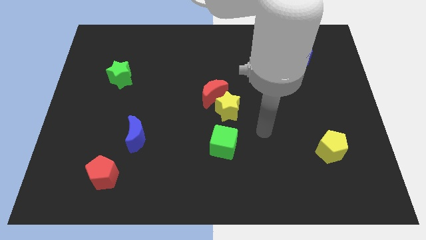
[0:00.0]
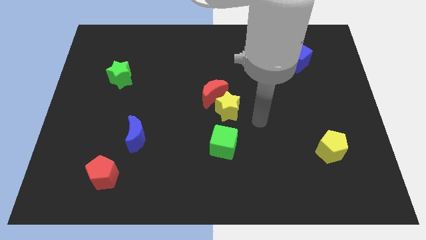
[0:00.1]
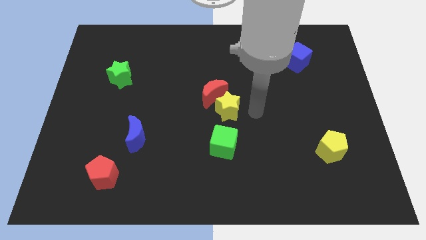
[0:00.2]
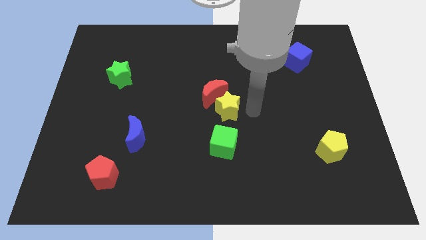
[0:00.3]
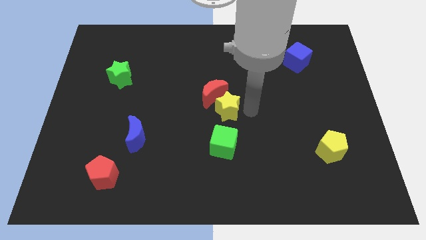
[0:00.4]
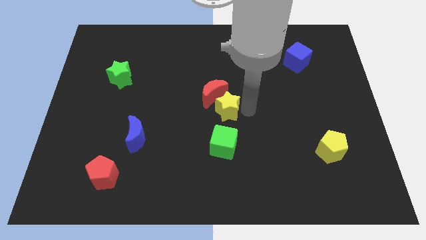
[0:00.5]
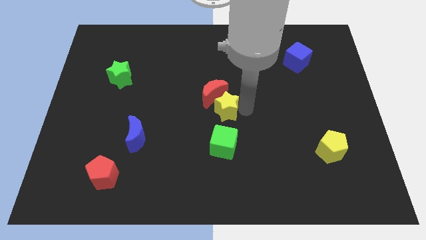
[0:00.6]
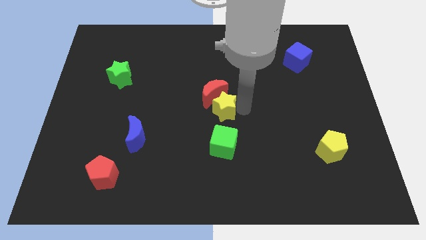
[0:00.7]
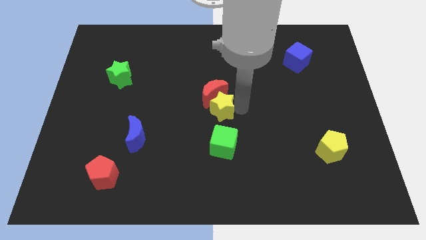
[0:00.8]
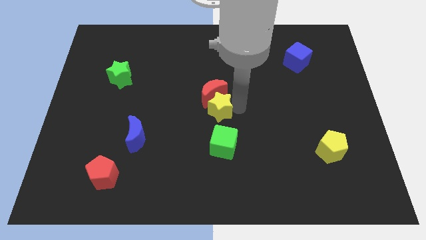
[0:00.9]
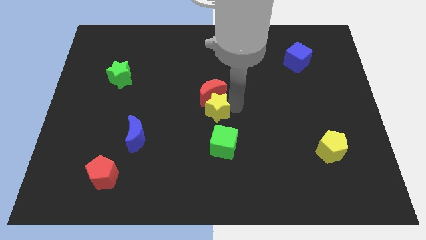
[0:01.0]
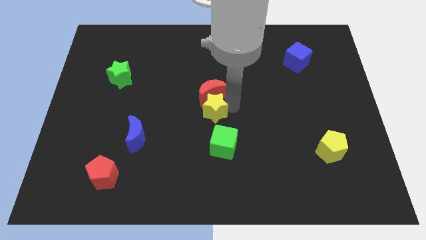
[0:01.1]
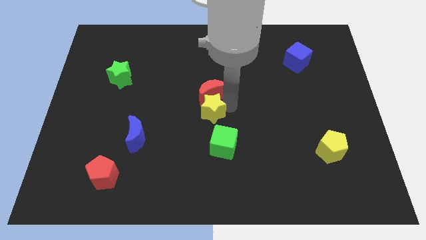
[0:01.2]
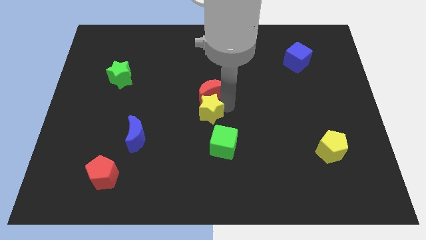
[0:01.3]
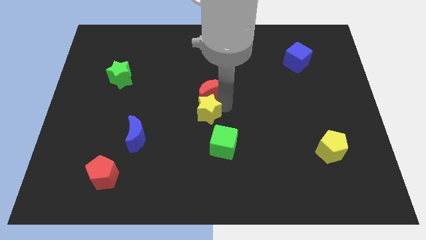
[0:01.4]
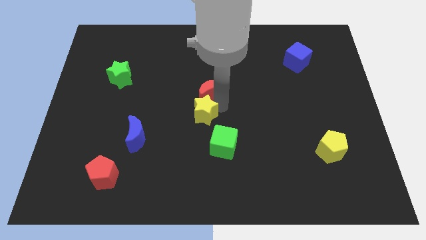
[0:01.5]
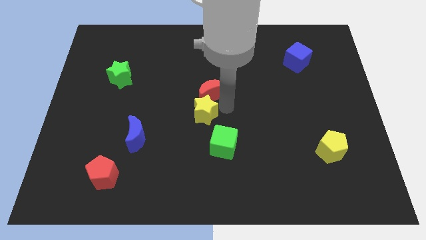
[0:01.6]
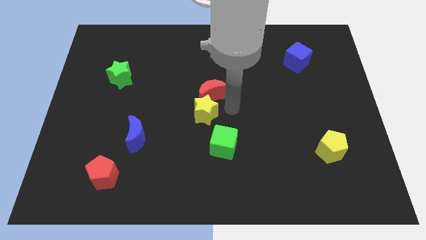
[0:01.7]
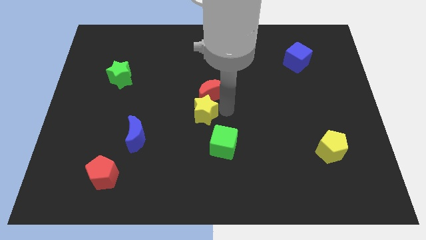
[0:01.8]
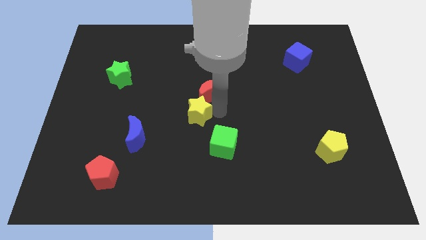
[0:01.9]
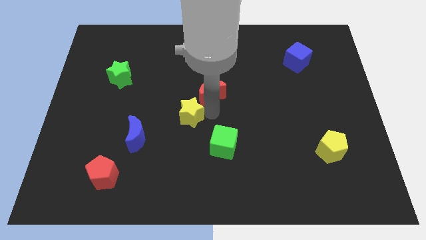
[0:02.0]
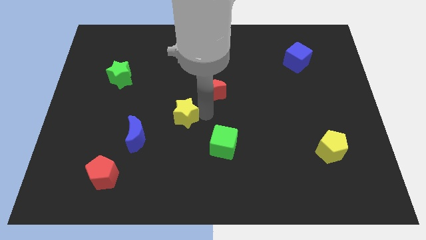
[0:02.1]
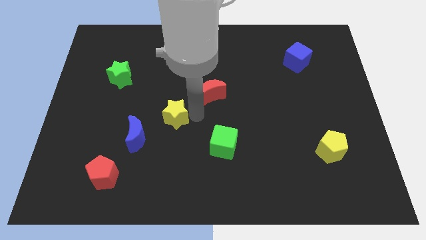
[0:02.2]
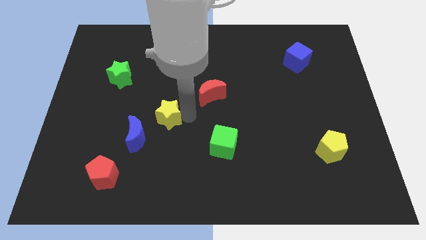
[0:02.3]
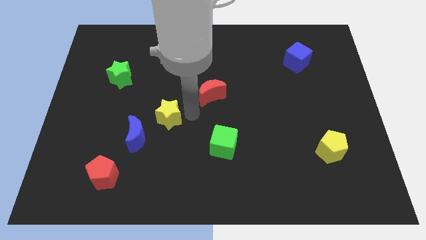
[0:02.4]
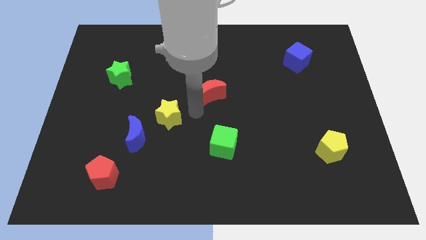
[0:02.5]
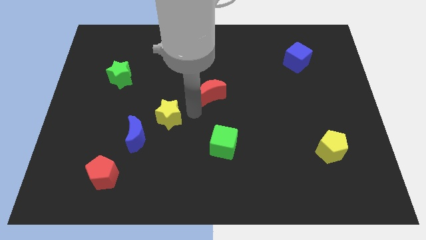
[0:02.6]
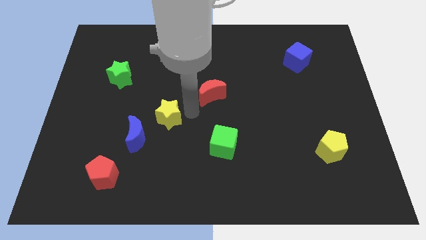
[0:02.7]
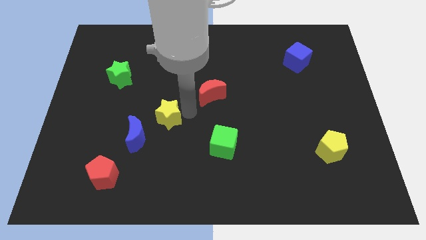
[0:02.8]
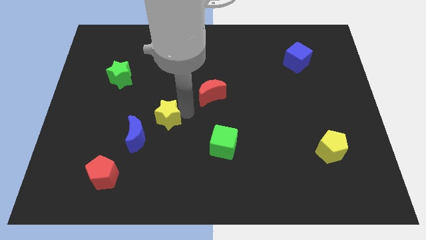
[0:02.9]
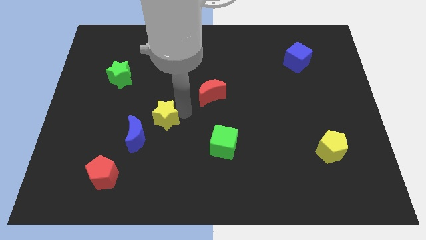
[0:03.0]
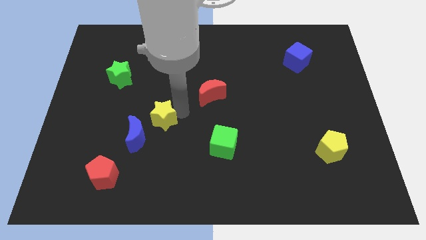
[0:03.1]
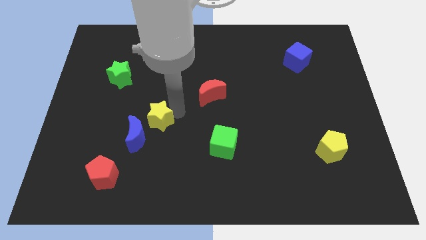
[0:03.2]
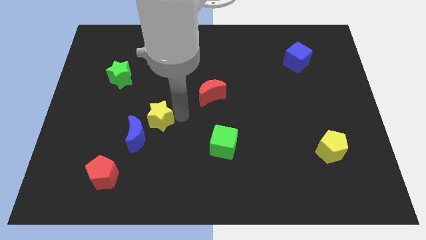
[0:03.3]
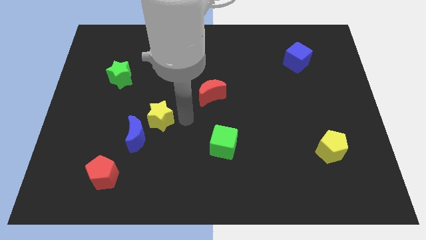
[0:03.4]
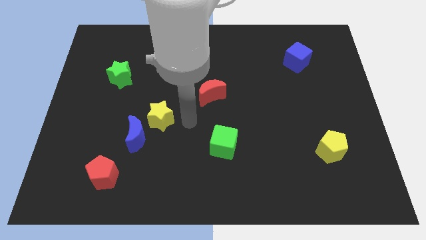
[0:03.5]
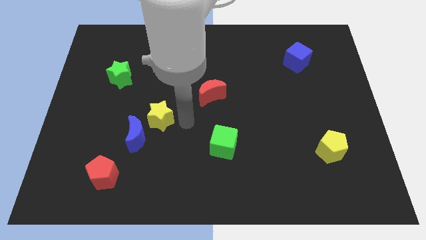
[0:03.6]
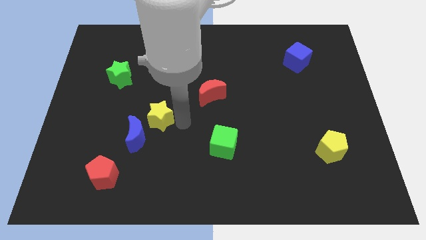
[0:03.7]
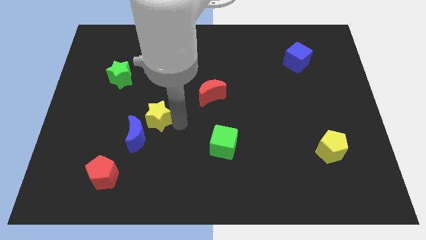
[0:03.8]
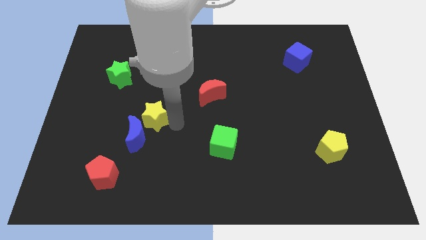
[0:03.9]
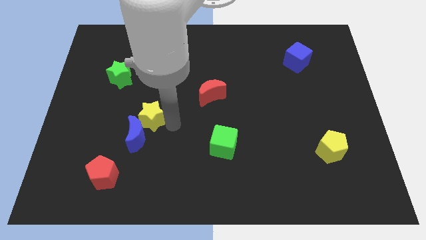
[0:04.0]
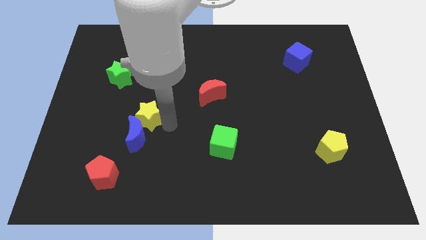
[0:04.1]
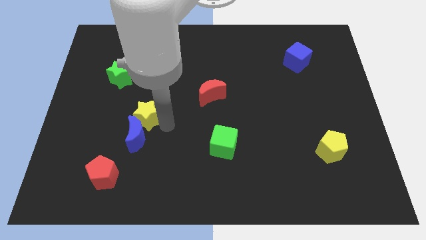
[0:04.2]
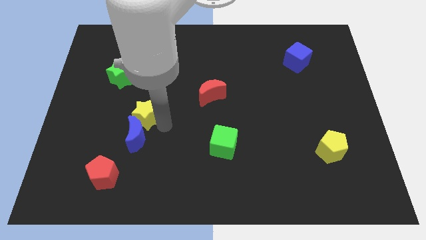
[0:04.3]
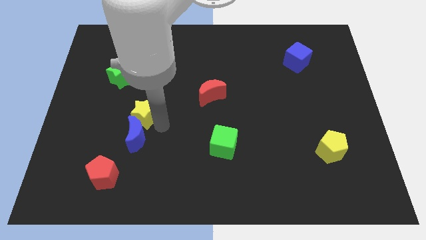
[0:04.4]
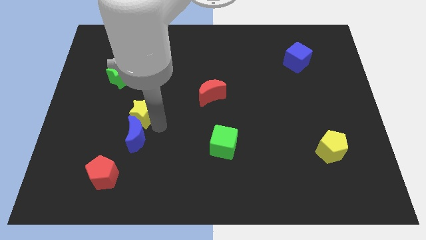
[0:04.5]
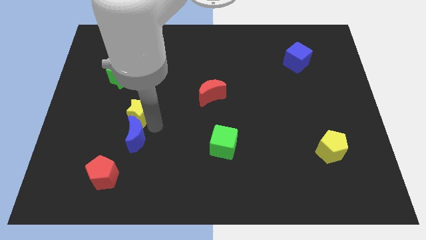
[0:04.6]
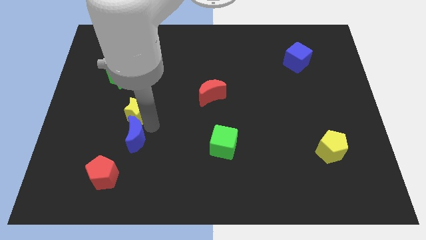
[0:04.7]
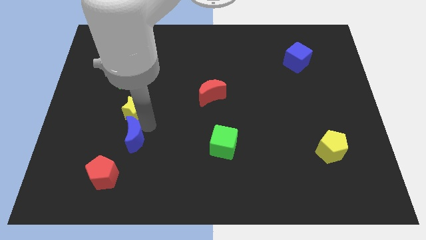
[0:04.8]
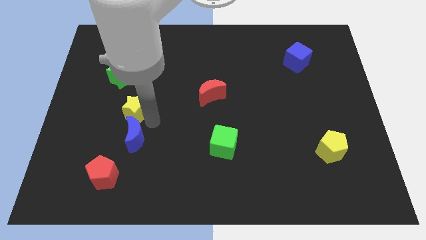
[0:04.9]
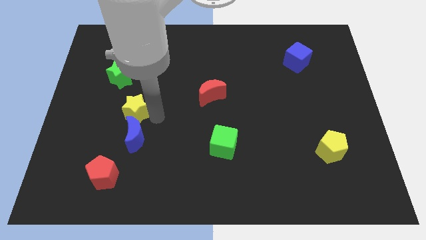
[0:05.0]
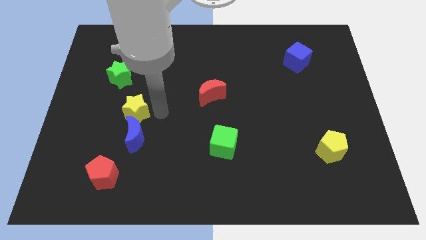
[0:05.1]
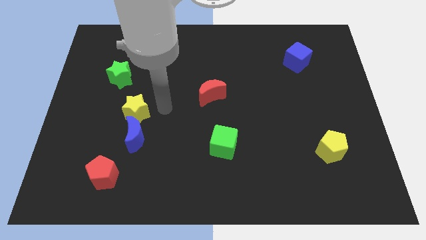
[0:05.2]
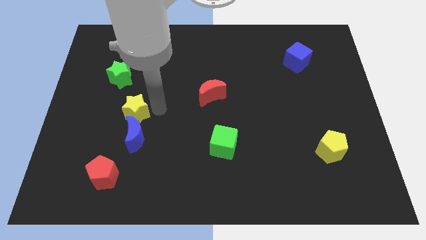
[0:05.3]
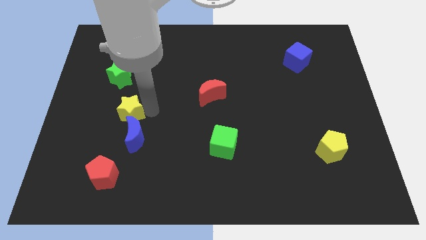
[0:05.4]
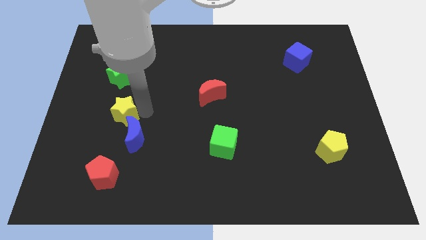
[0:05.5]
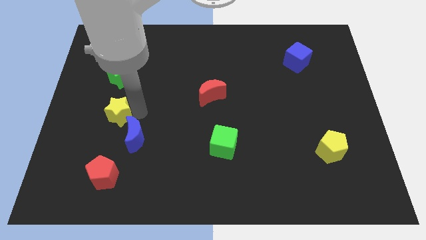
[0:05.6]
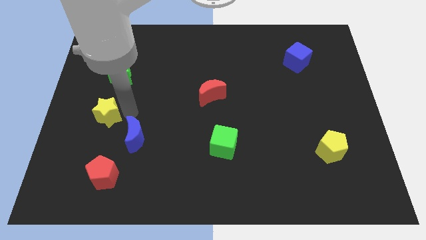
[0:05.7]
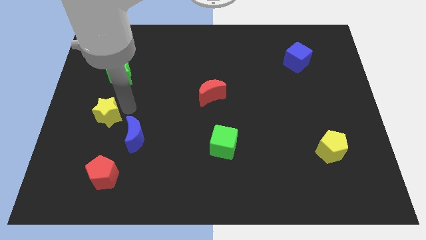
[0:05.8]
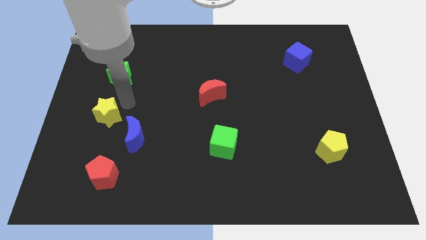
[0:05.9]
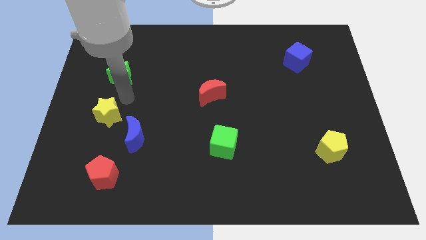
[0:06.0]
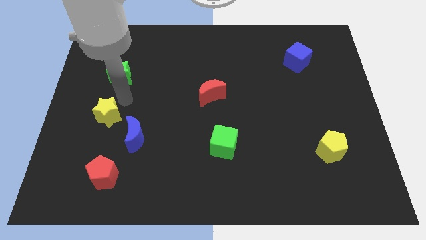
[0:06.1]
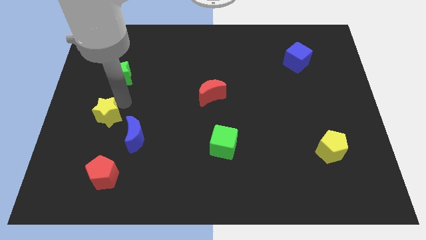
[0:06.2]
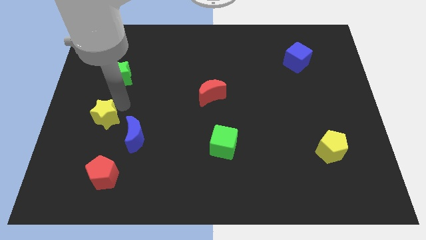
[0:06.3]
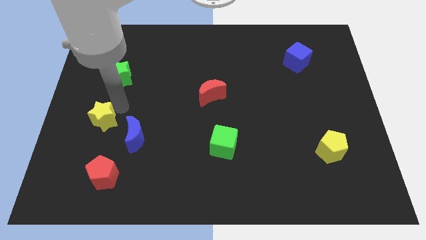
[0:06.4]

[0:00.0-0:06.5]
push the yellow star just left of the blue moon

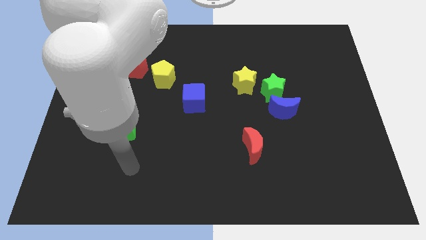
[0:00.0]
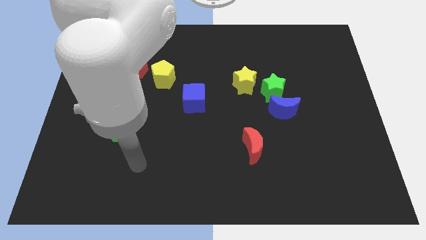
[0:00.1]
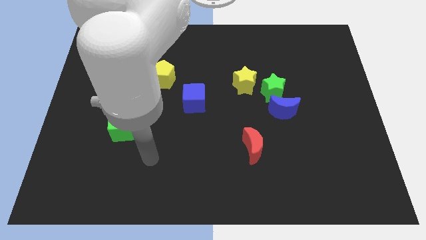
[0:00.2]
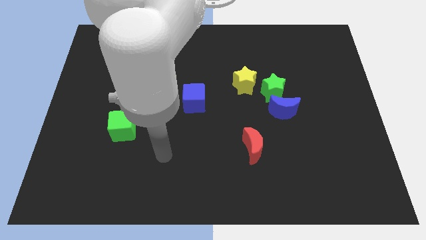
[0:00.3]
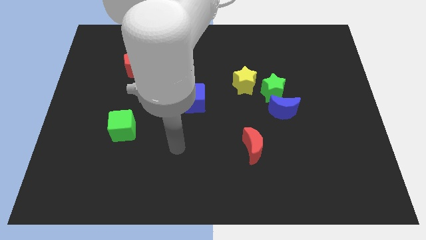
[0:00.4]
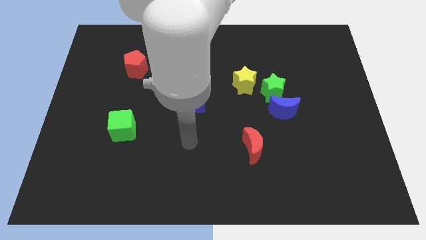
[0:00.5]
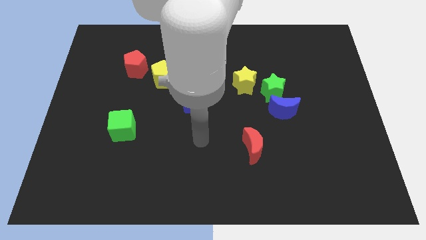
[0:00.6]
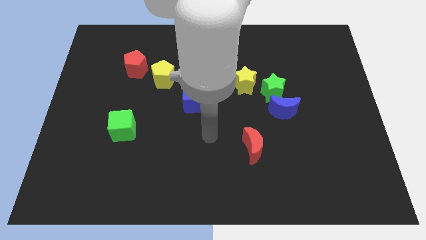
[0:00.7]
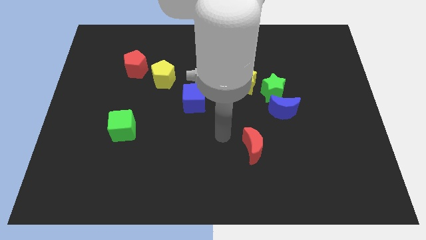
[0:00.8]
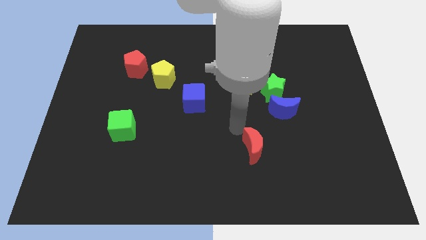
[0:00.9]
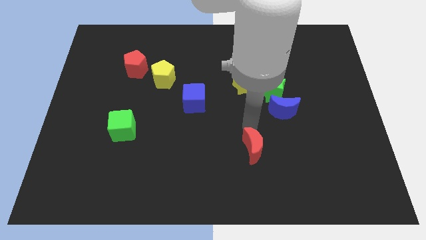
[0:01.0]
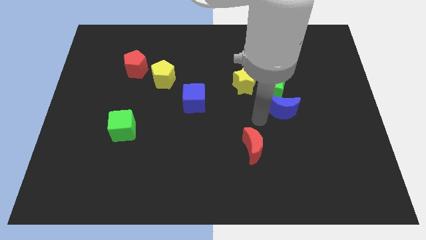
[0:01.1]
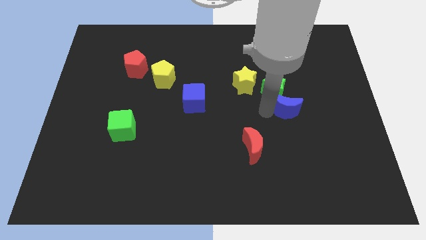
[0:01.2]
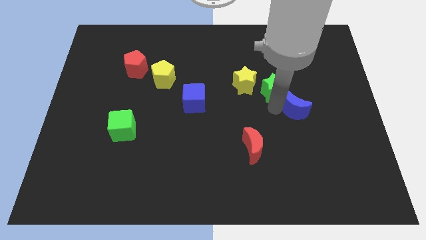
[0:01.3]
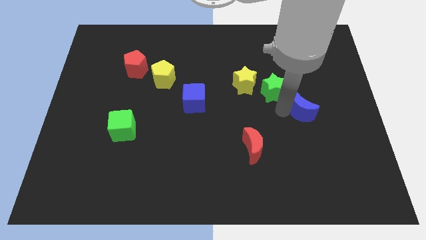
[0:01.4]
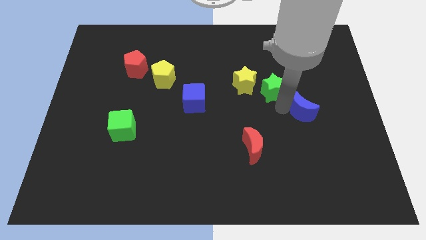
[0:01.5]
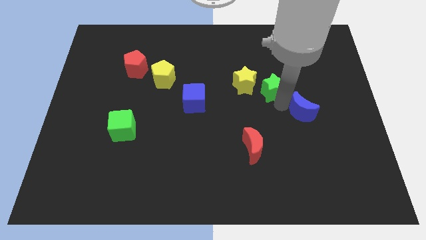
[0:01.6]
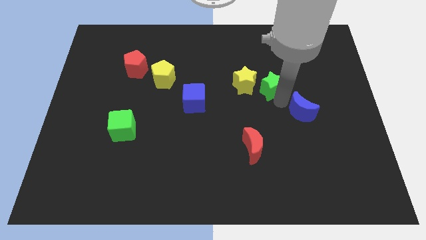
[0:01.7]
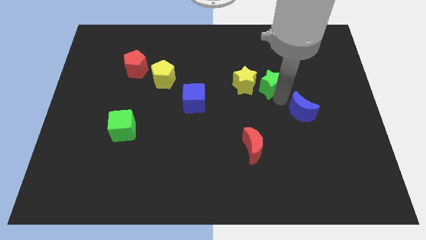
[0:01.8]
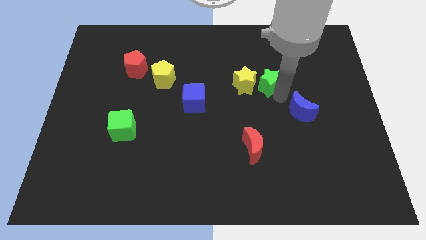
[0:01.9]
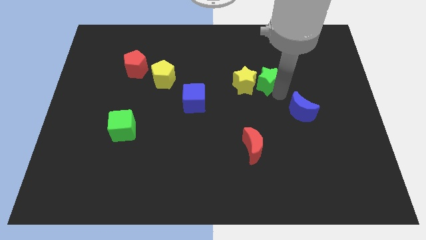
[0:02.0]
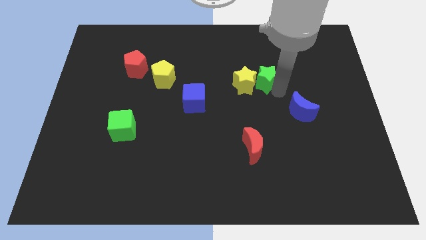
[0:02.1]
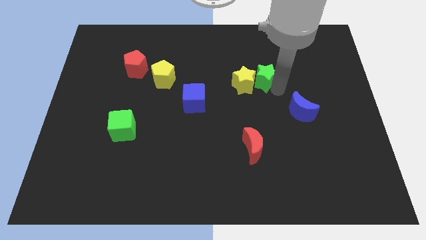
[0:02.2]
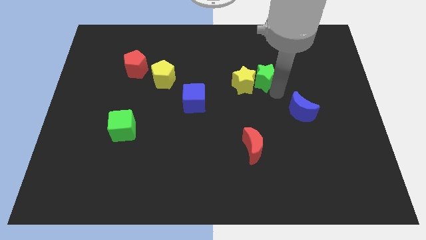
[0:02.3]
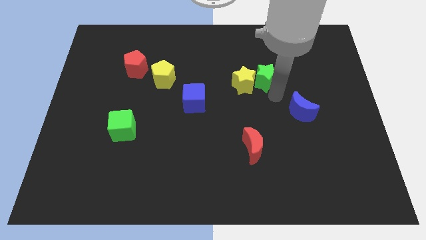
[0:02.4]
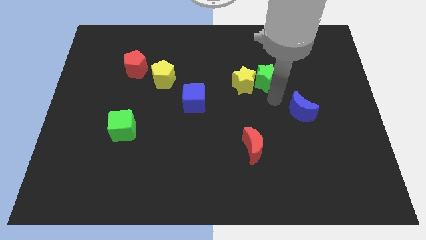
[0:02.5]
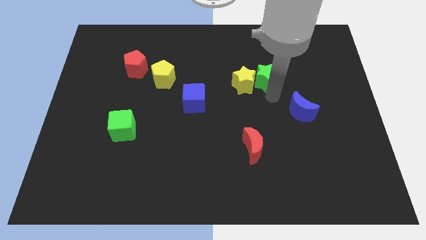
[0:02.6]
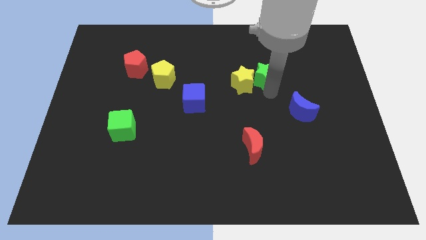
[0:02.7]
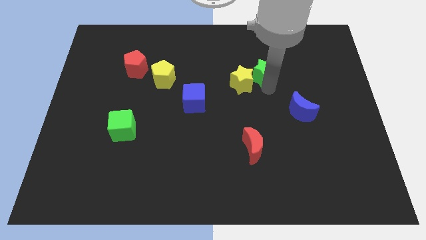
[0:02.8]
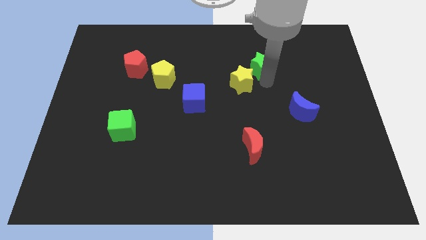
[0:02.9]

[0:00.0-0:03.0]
put the green star above the yellow star
